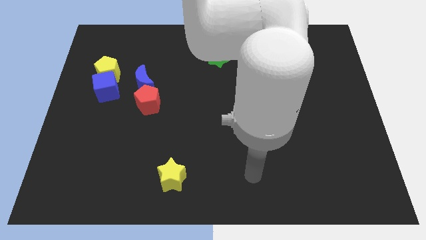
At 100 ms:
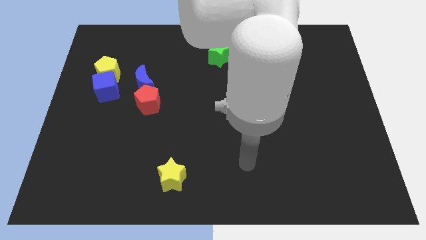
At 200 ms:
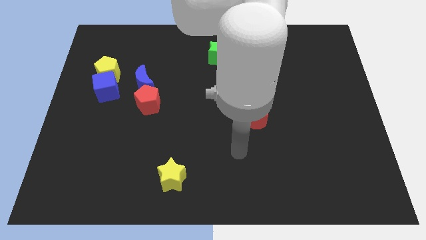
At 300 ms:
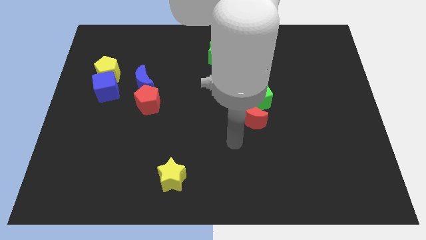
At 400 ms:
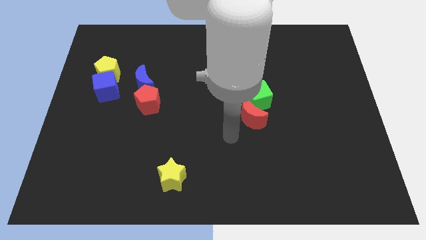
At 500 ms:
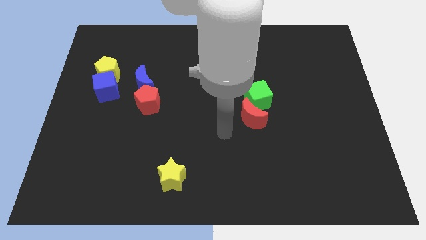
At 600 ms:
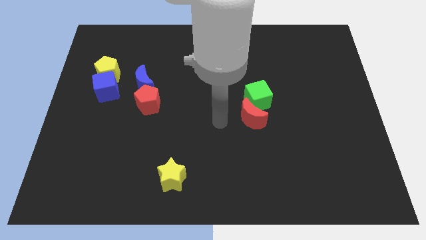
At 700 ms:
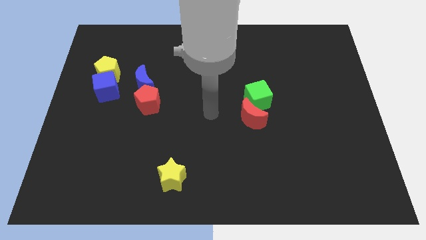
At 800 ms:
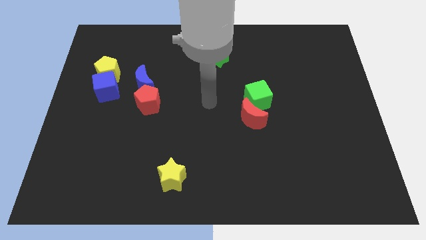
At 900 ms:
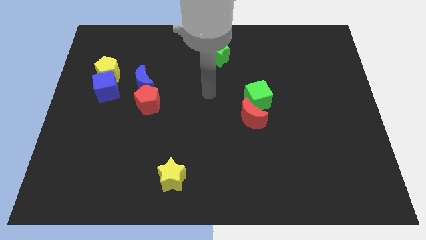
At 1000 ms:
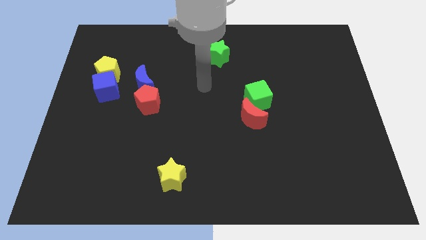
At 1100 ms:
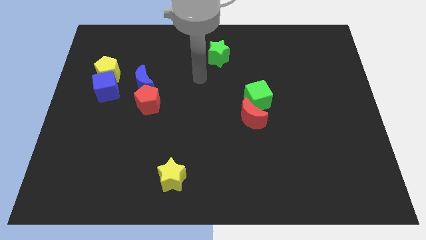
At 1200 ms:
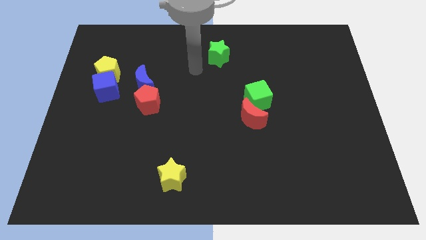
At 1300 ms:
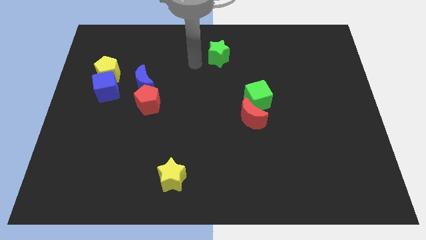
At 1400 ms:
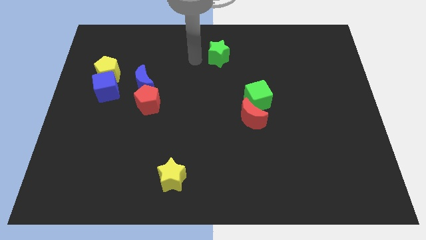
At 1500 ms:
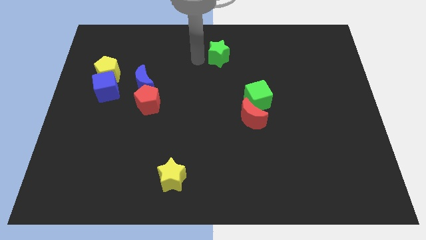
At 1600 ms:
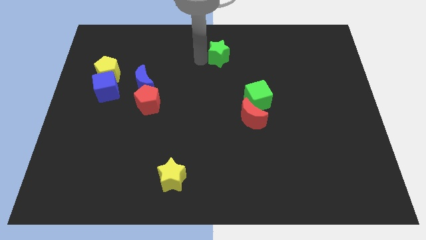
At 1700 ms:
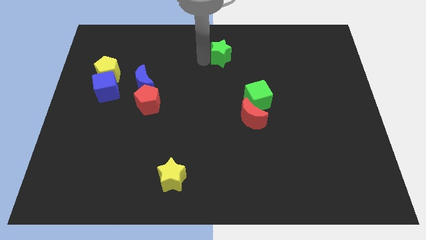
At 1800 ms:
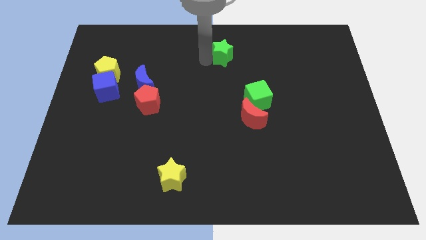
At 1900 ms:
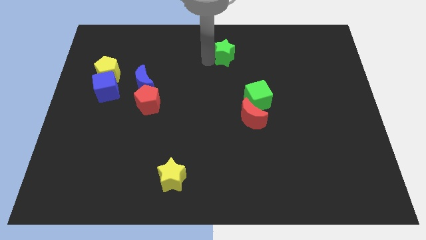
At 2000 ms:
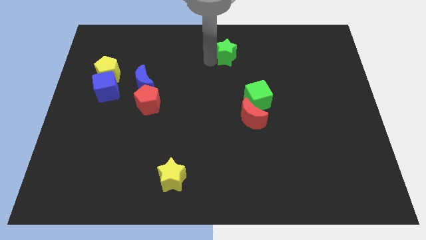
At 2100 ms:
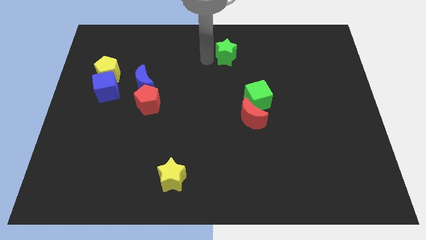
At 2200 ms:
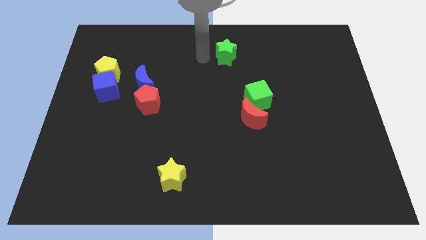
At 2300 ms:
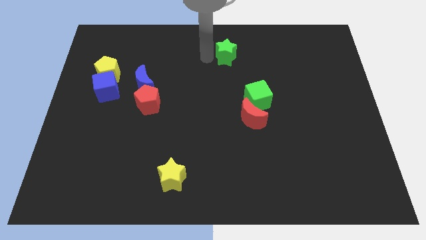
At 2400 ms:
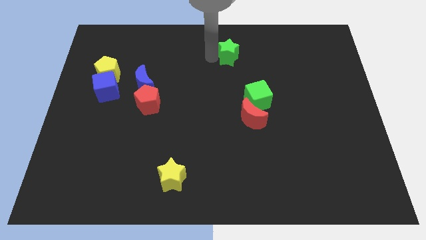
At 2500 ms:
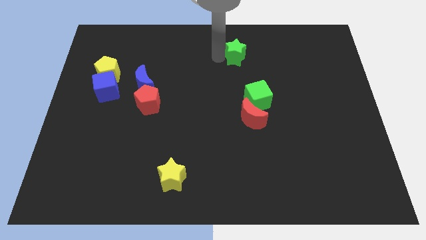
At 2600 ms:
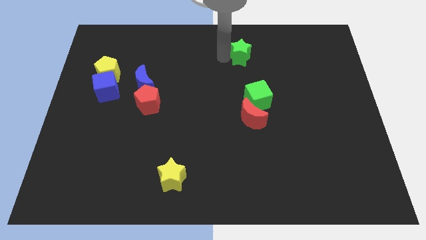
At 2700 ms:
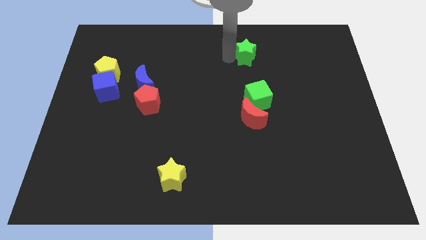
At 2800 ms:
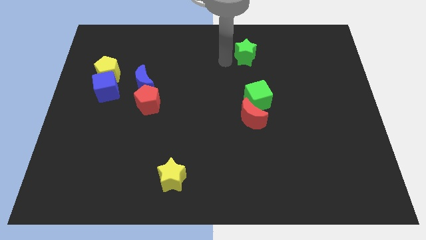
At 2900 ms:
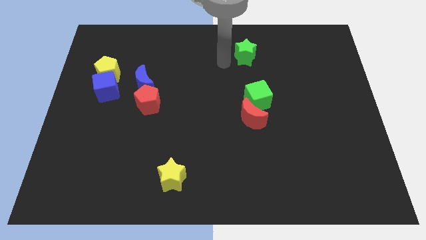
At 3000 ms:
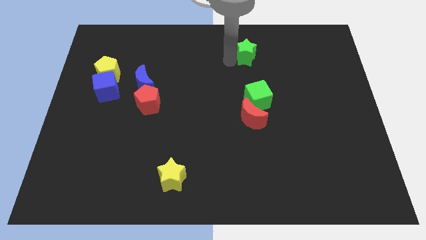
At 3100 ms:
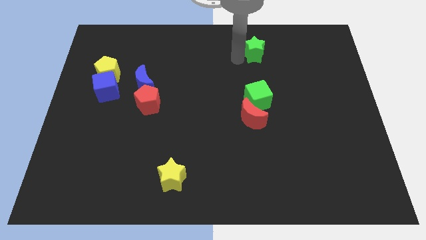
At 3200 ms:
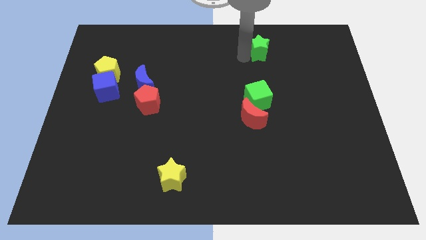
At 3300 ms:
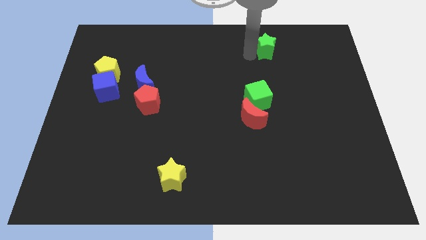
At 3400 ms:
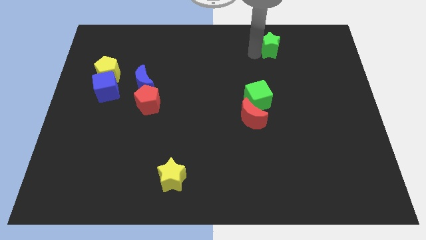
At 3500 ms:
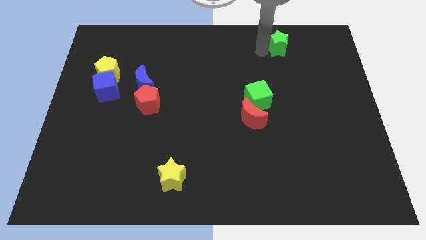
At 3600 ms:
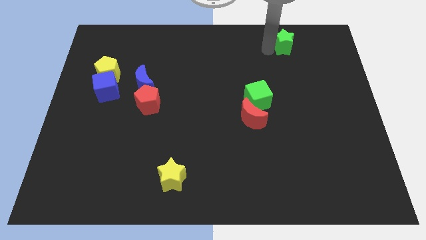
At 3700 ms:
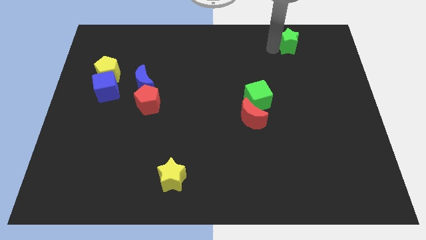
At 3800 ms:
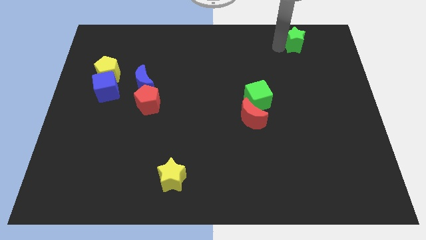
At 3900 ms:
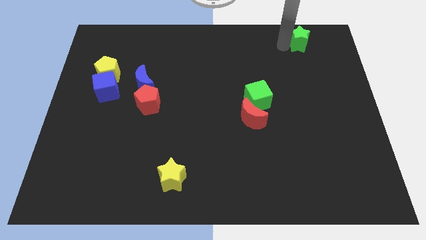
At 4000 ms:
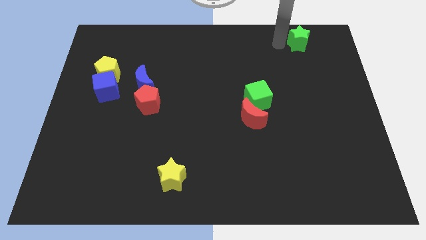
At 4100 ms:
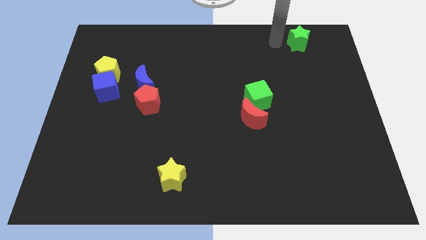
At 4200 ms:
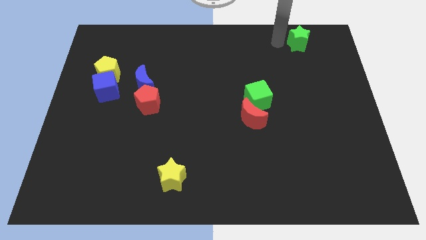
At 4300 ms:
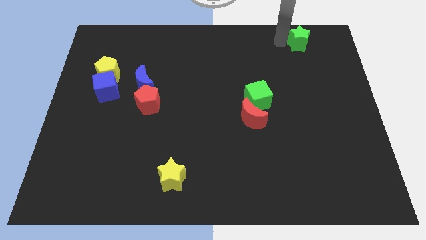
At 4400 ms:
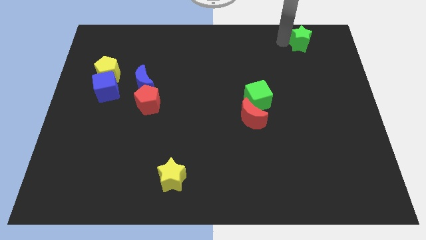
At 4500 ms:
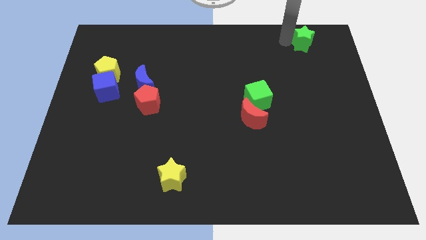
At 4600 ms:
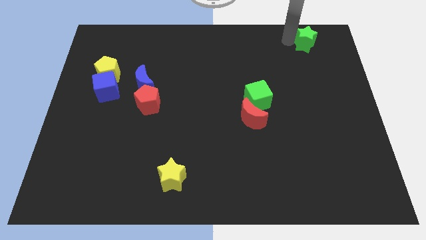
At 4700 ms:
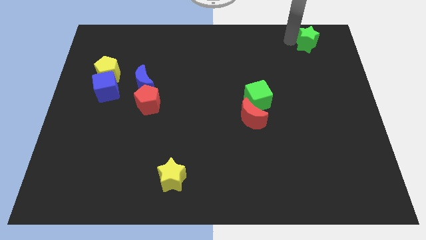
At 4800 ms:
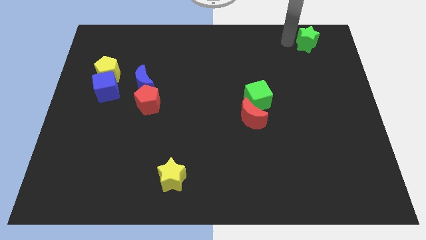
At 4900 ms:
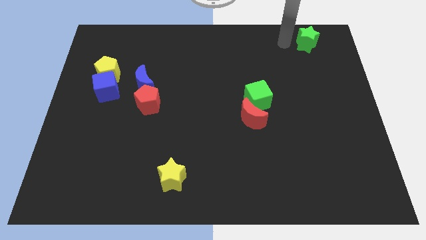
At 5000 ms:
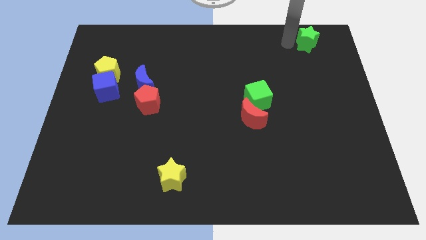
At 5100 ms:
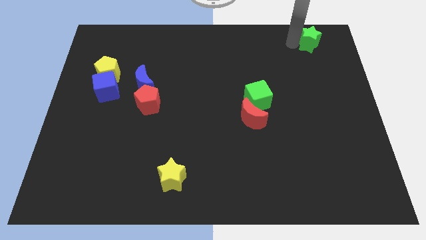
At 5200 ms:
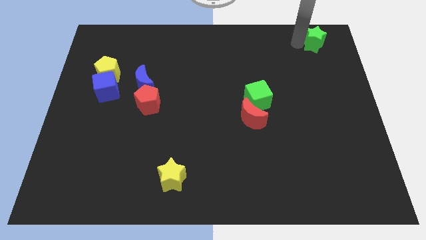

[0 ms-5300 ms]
slide the green star to the top right

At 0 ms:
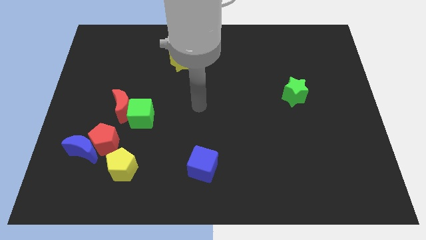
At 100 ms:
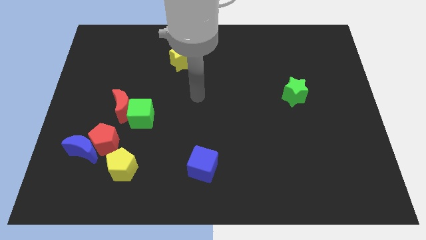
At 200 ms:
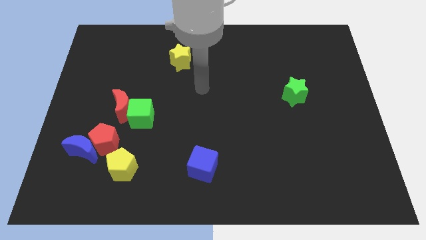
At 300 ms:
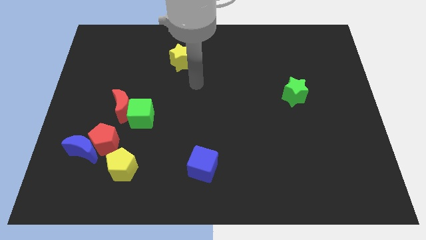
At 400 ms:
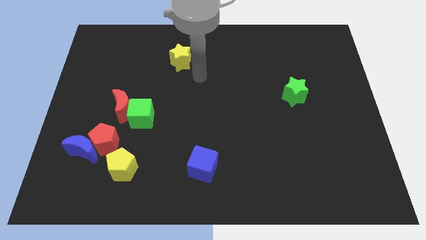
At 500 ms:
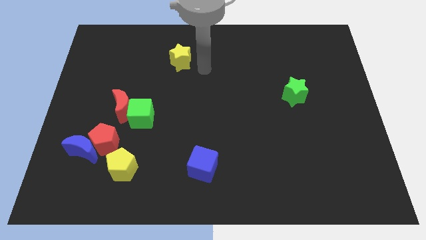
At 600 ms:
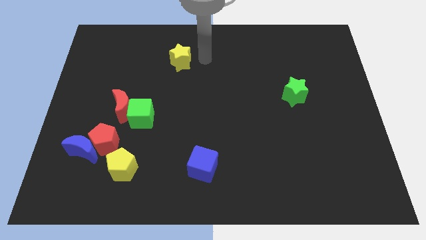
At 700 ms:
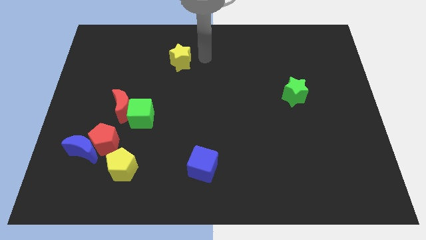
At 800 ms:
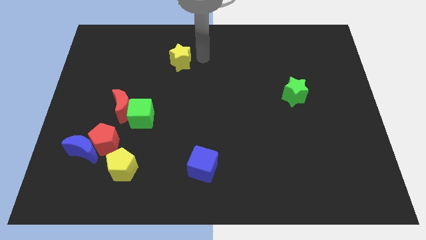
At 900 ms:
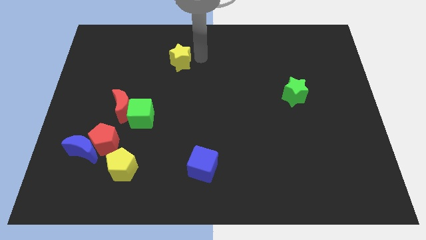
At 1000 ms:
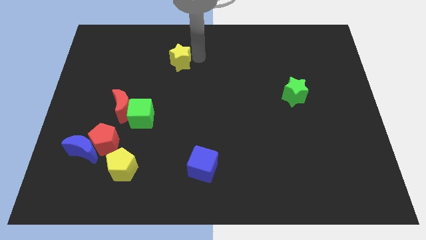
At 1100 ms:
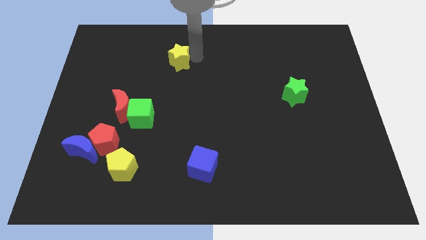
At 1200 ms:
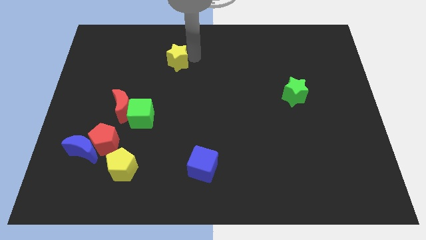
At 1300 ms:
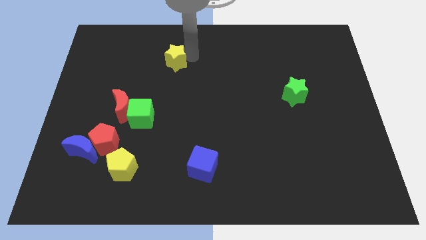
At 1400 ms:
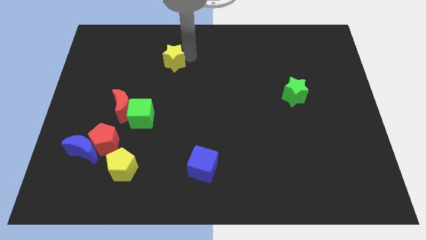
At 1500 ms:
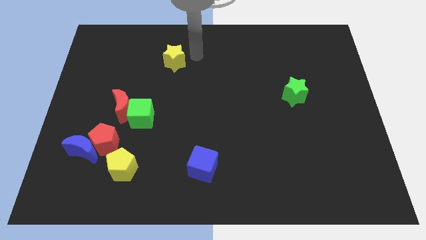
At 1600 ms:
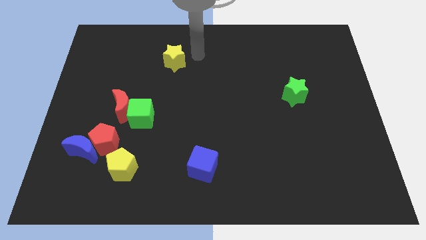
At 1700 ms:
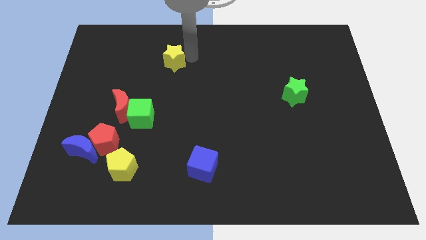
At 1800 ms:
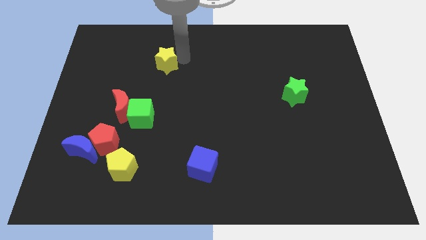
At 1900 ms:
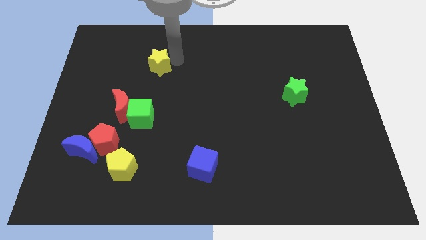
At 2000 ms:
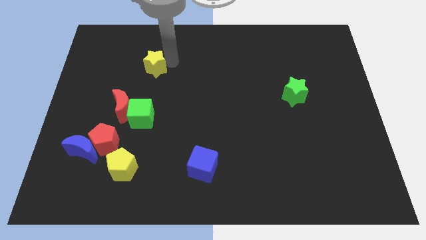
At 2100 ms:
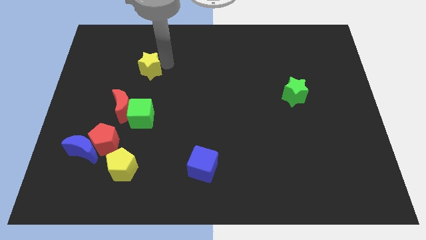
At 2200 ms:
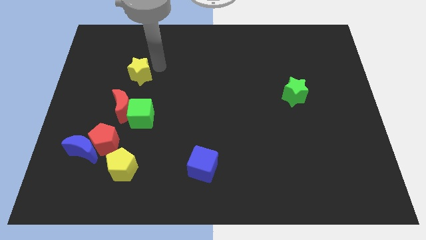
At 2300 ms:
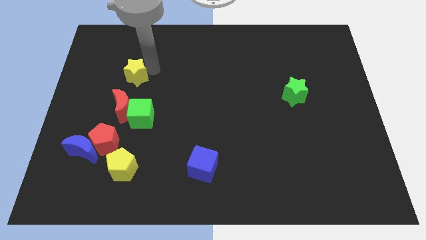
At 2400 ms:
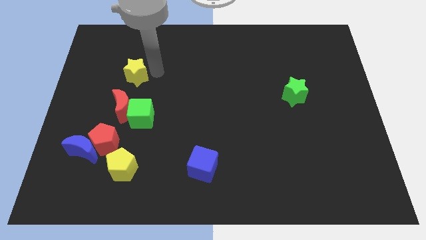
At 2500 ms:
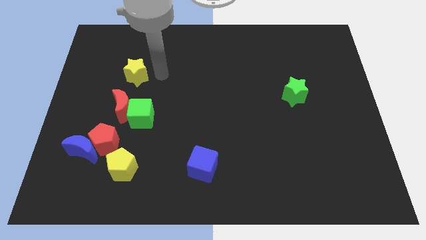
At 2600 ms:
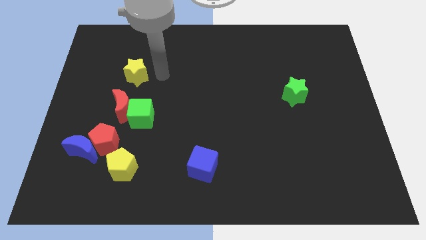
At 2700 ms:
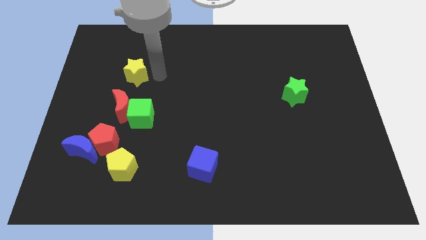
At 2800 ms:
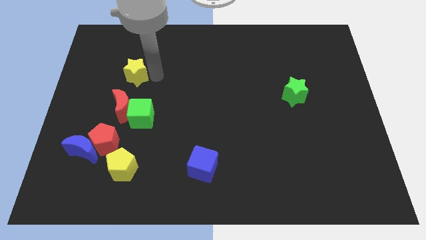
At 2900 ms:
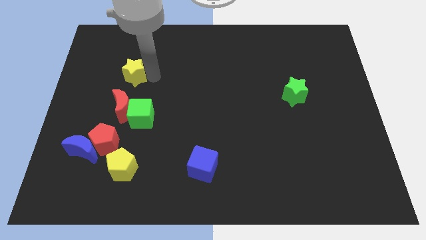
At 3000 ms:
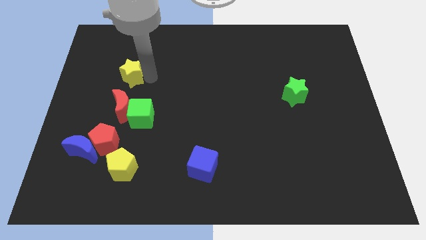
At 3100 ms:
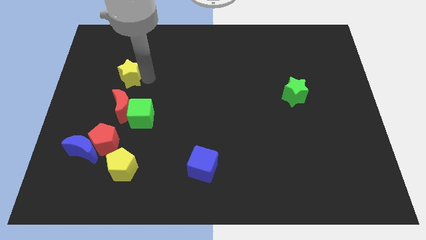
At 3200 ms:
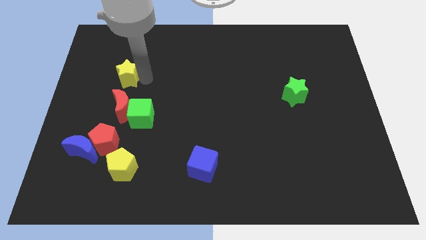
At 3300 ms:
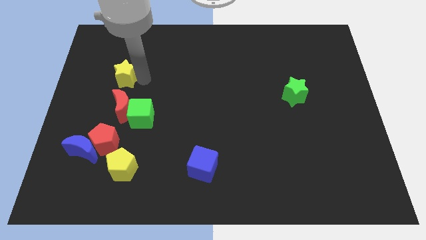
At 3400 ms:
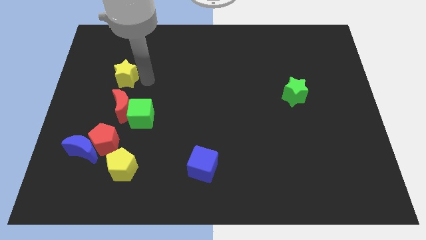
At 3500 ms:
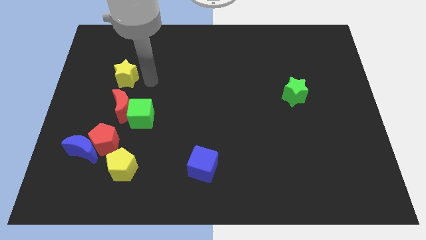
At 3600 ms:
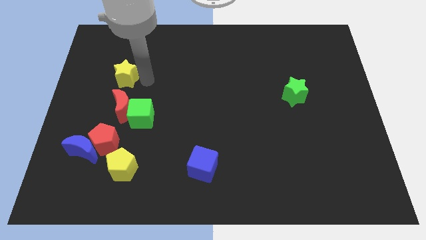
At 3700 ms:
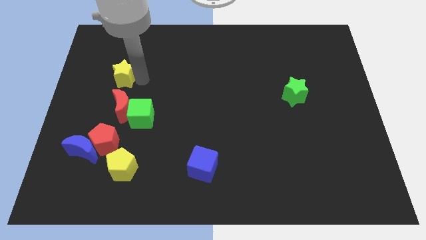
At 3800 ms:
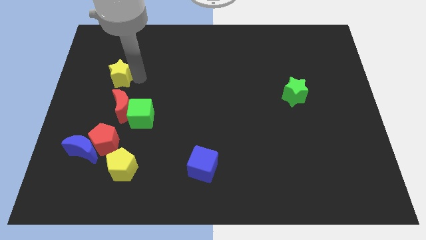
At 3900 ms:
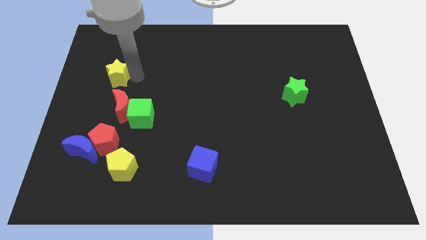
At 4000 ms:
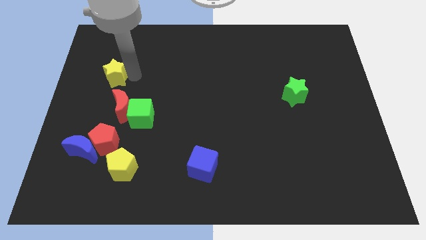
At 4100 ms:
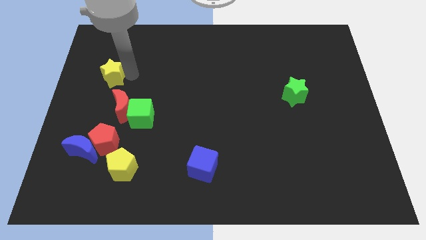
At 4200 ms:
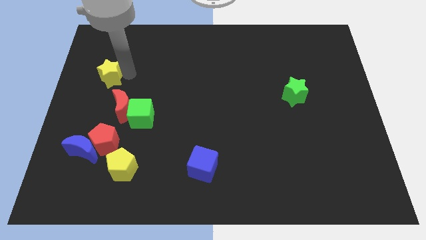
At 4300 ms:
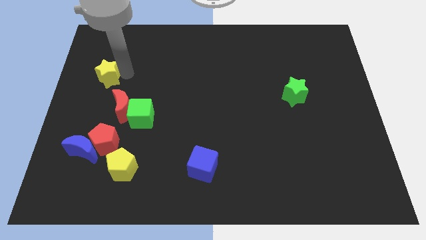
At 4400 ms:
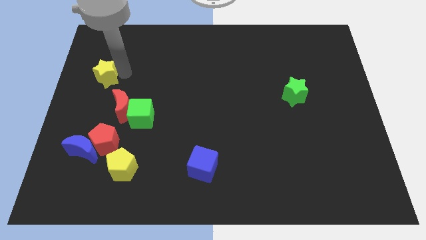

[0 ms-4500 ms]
slide the yellow star to the left side of the board
